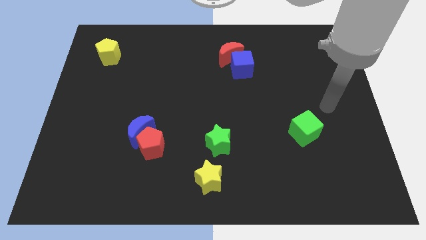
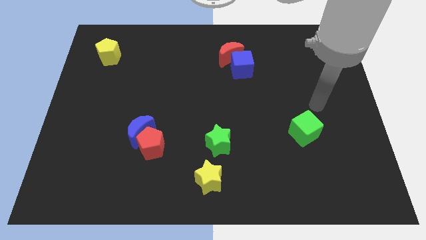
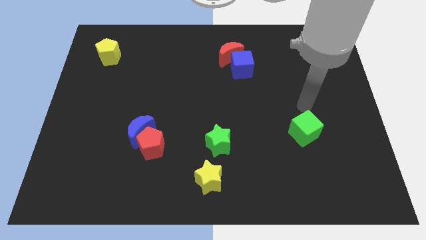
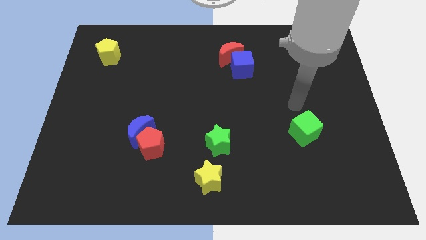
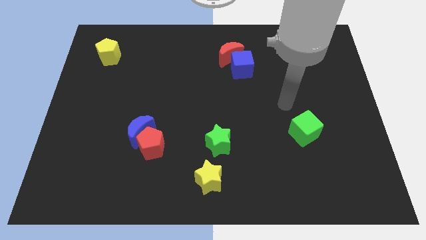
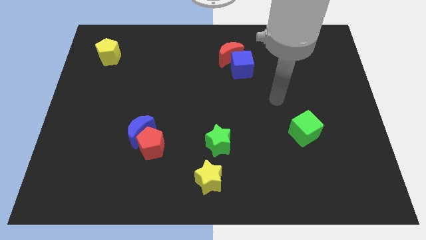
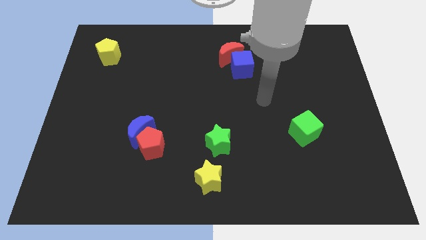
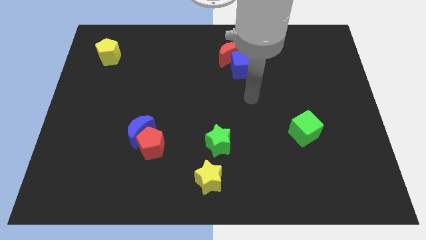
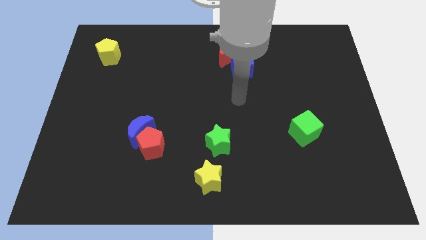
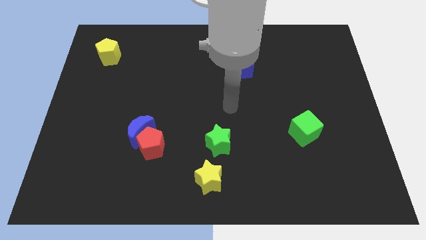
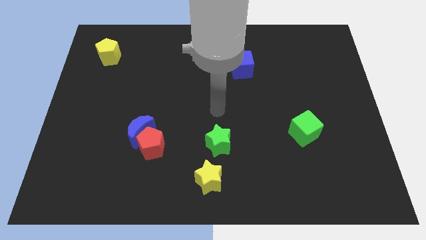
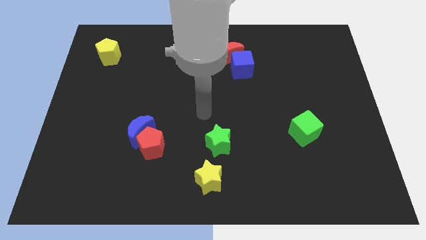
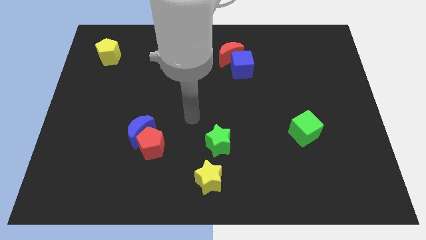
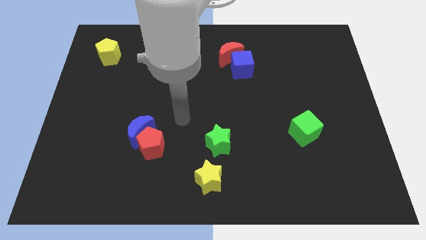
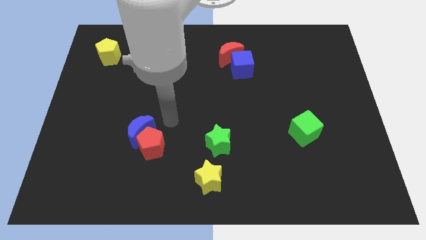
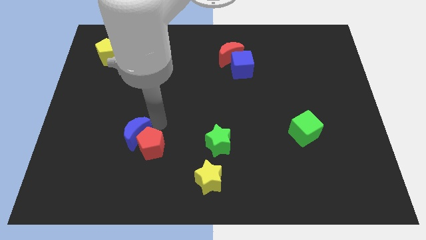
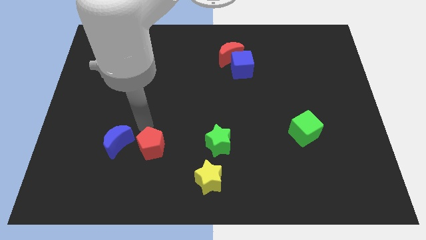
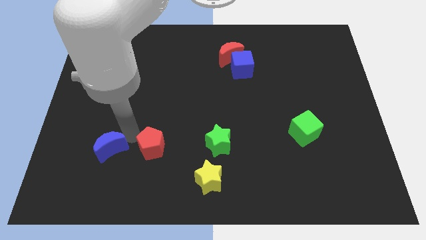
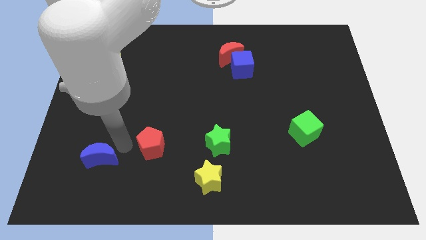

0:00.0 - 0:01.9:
separate the red pentagon from the blue moon

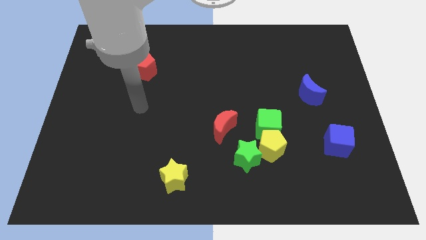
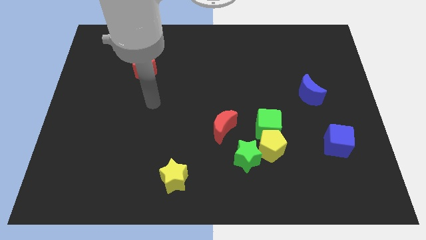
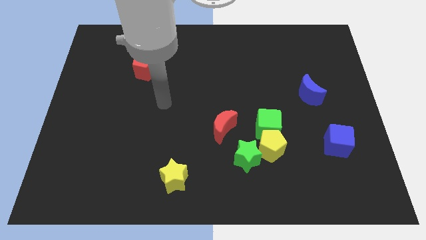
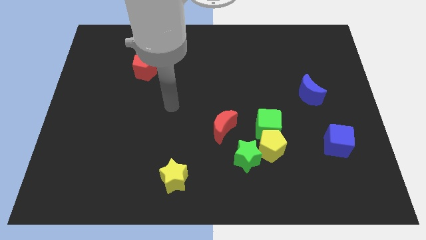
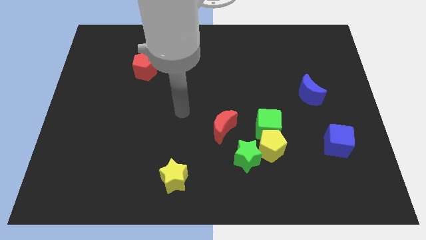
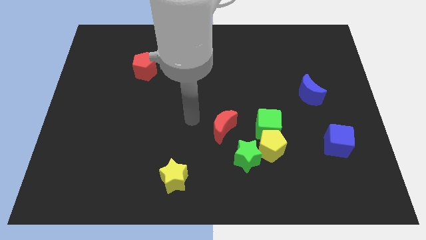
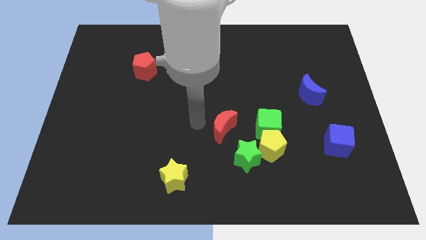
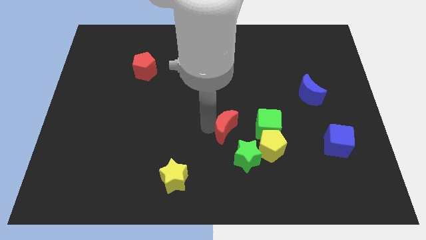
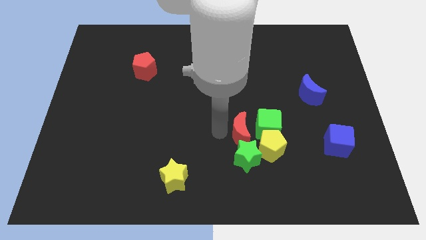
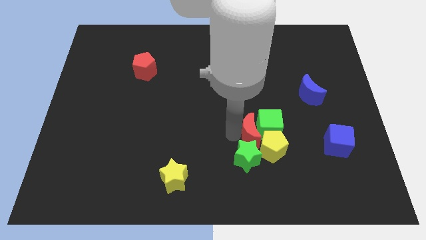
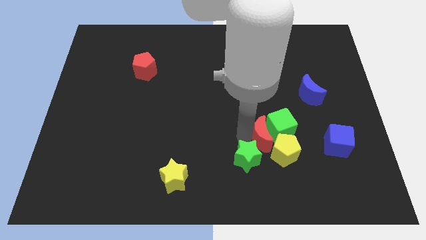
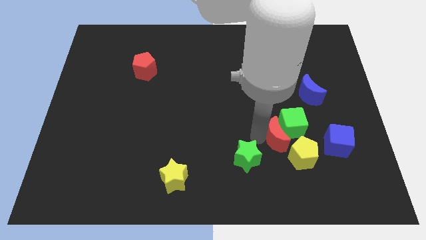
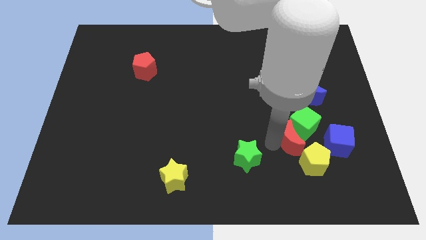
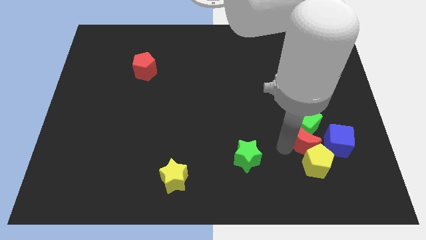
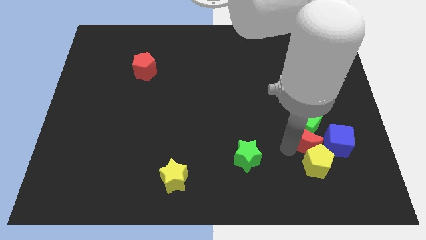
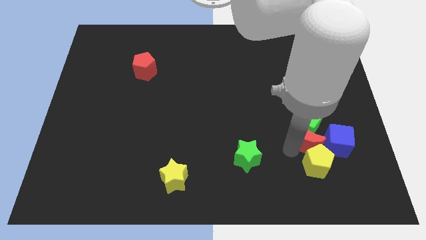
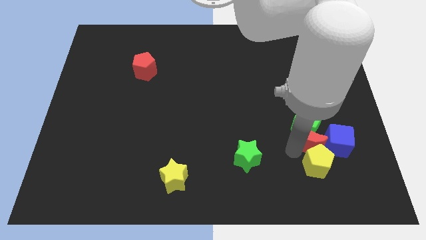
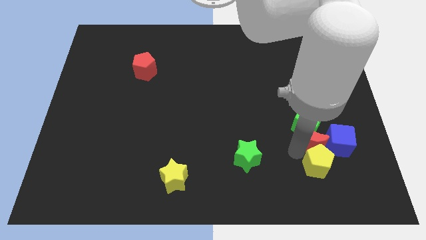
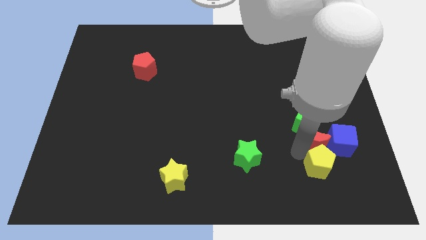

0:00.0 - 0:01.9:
separate the yellow pentagon from the green cube and green star

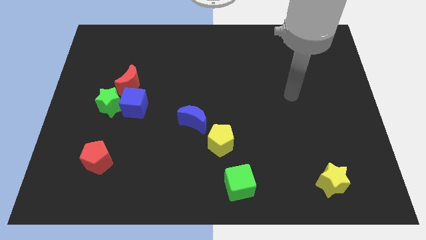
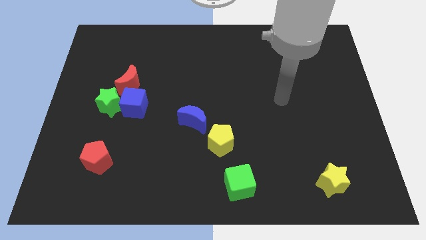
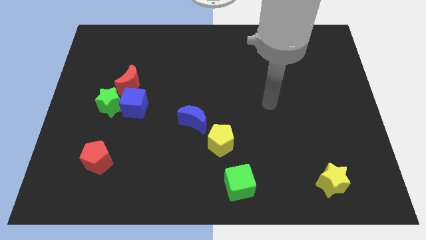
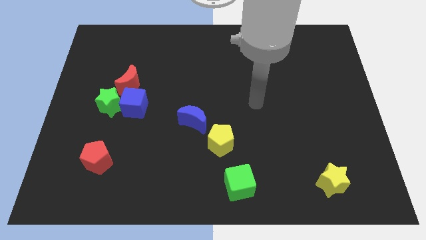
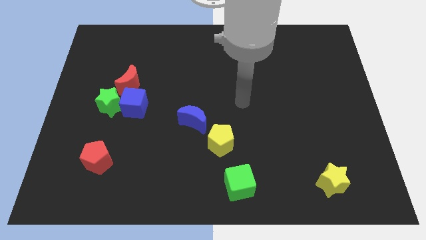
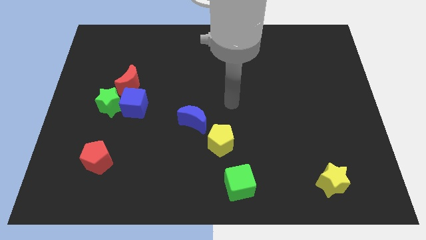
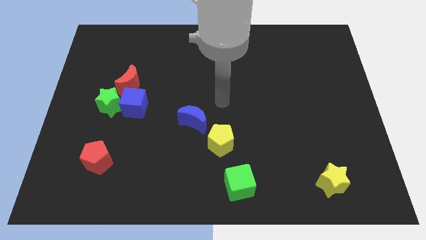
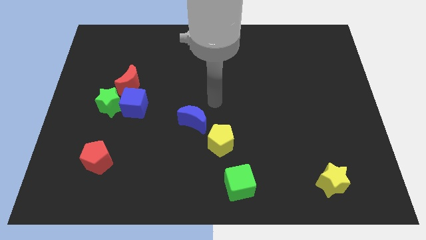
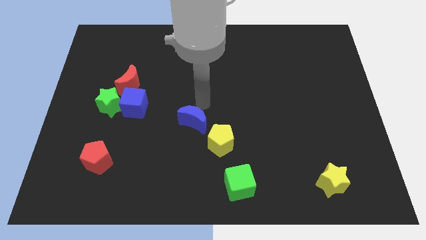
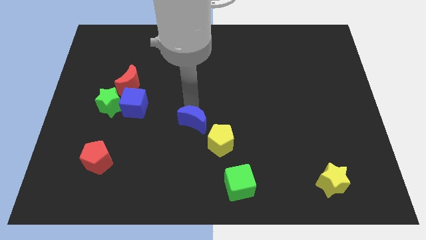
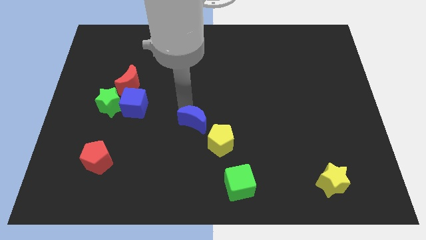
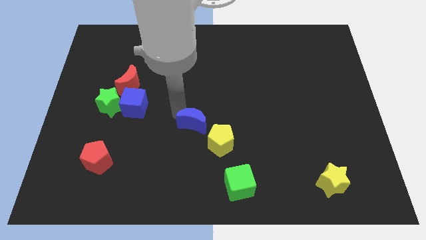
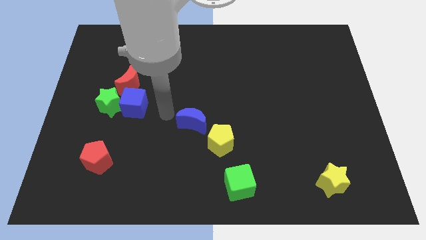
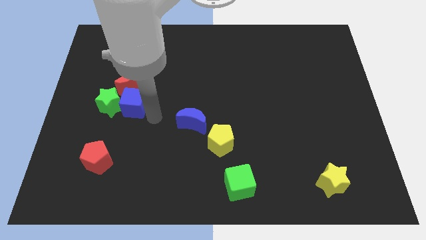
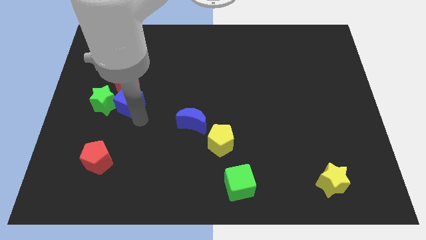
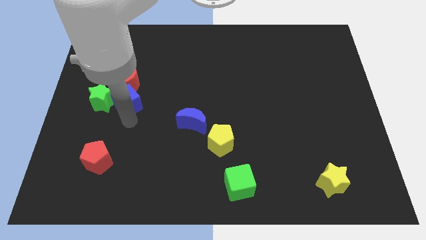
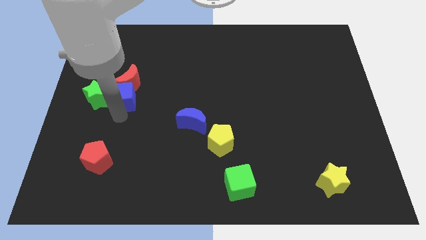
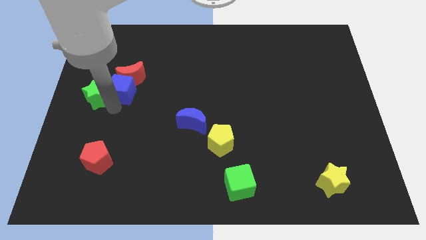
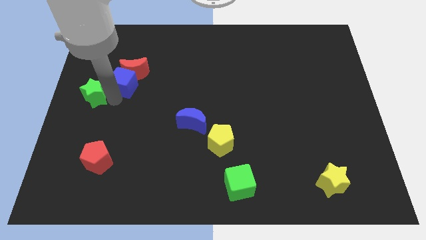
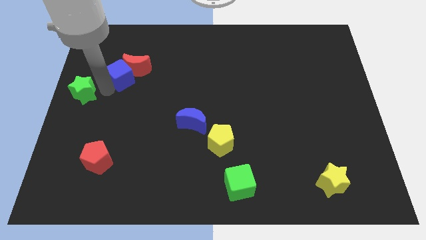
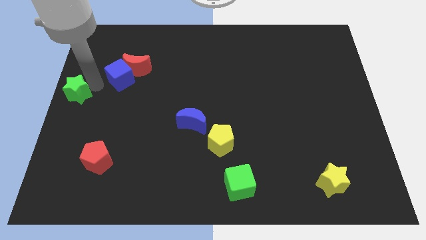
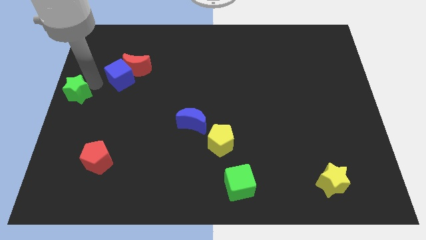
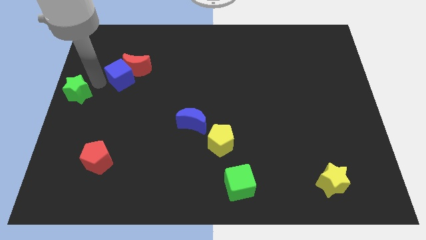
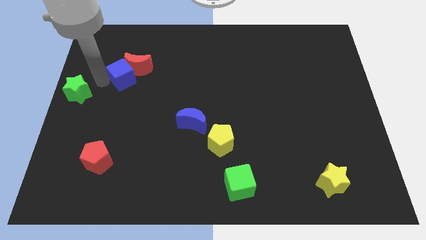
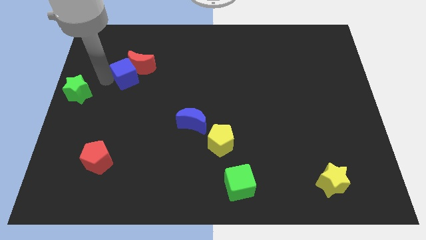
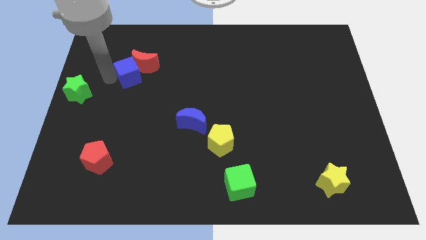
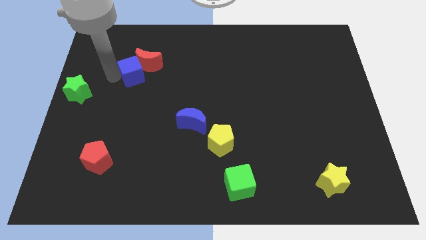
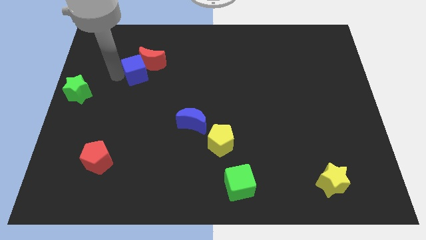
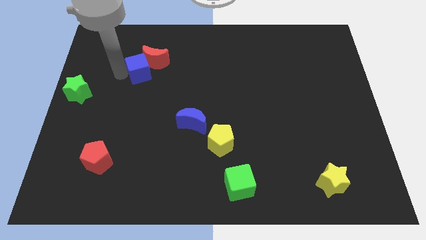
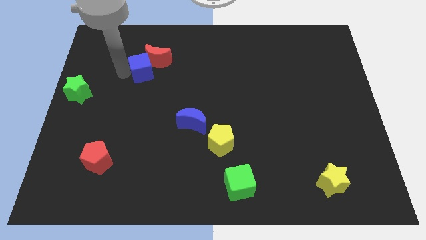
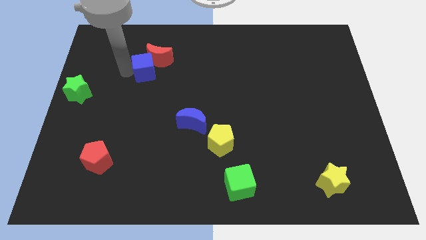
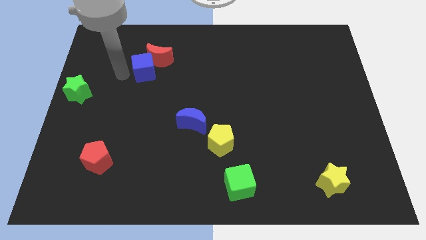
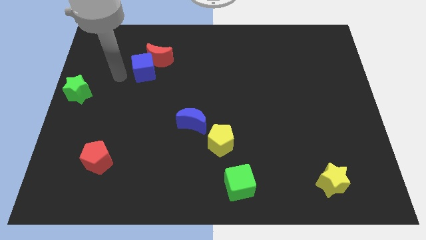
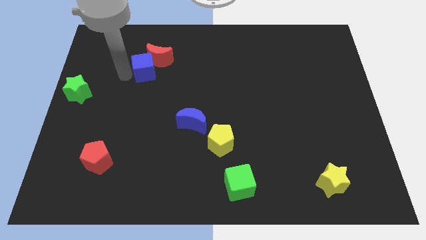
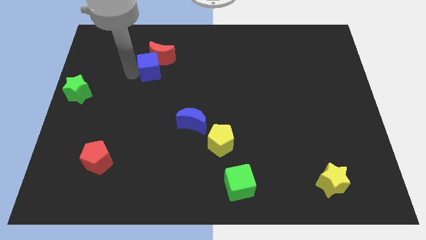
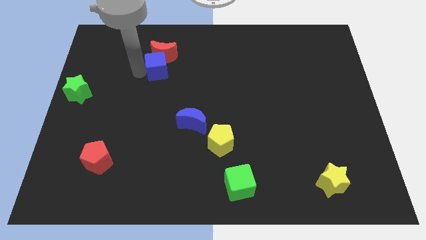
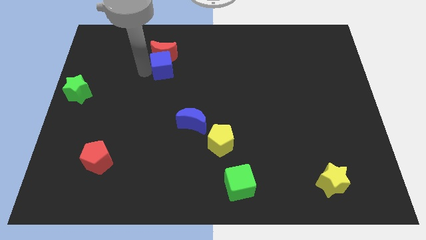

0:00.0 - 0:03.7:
separate the blue cube from the green star and red moon

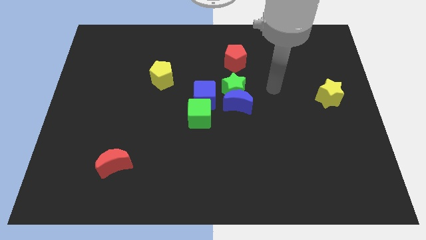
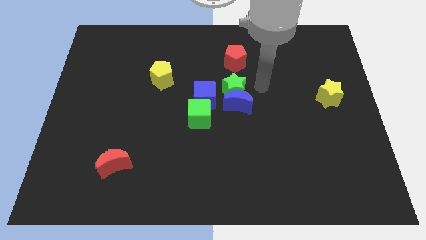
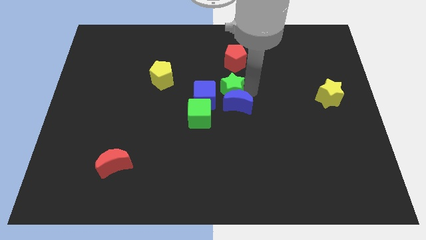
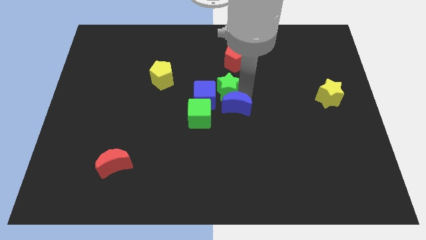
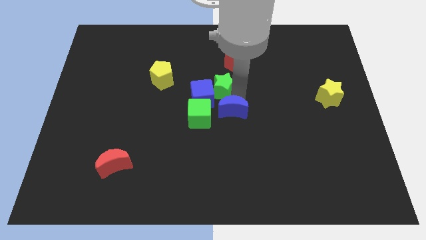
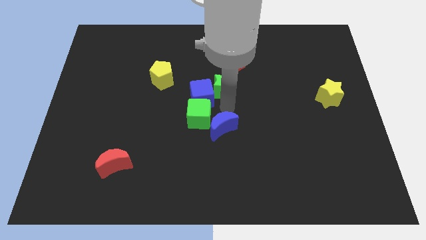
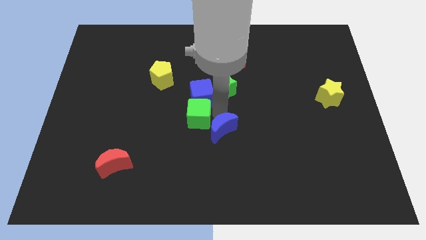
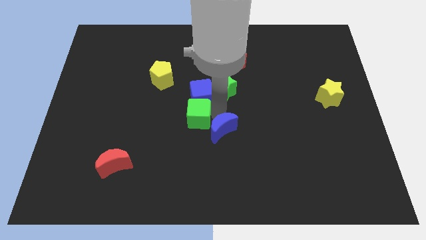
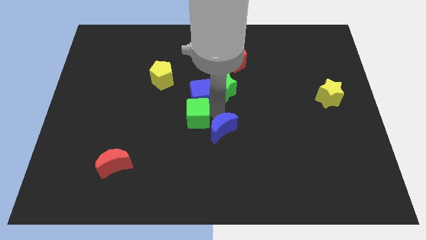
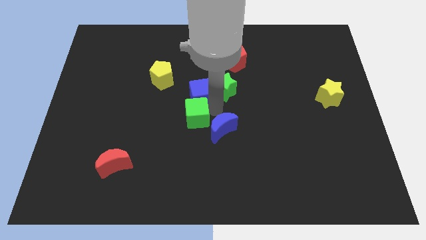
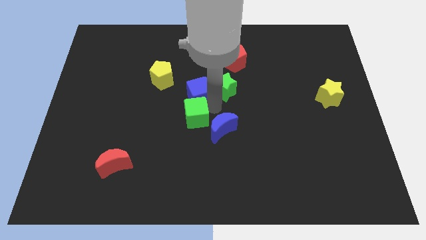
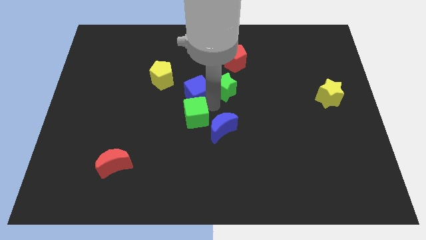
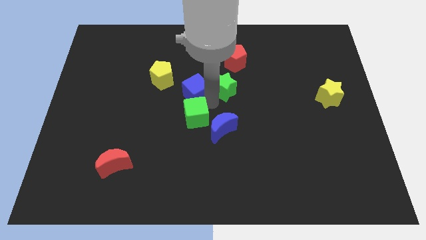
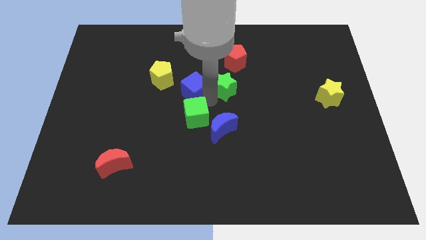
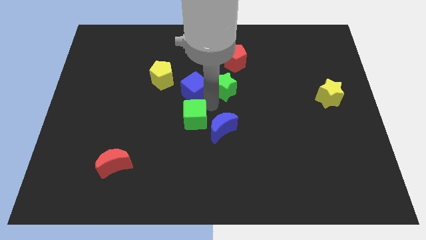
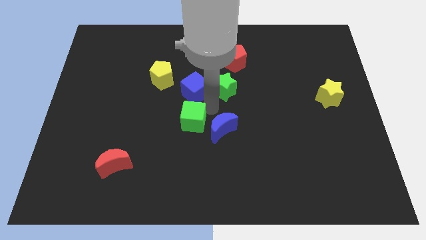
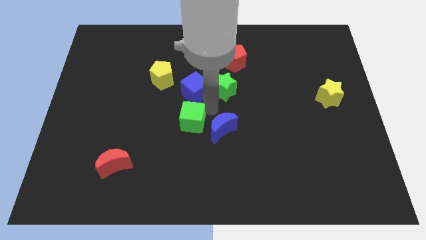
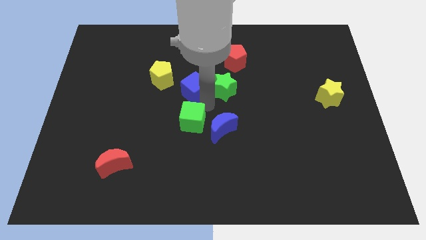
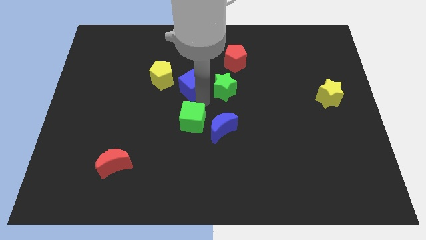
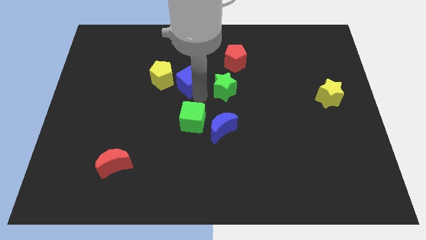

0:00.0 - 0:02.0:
pull the blue cube apart from the clump
